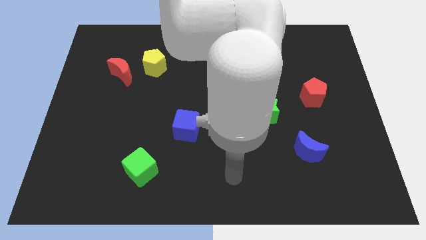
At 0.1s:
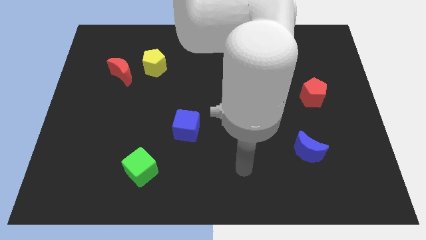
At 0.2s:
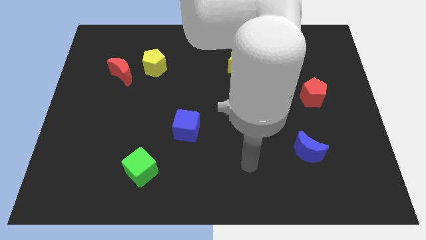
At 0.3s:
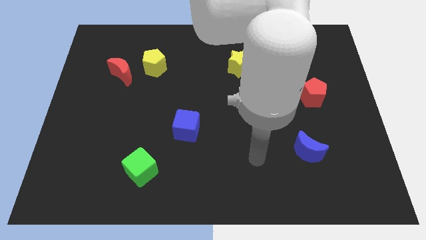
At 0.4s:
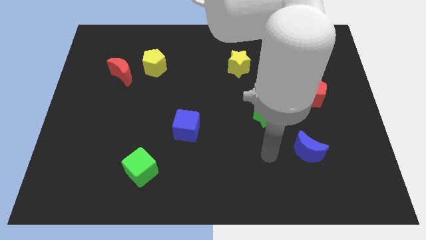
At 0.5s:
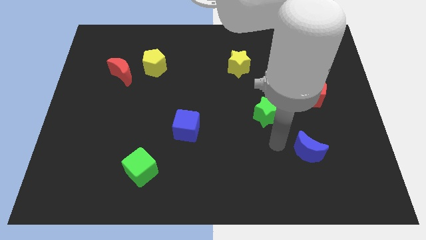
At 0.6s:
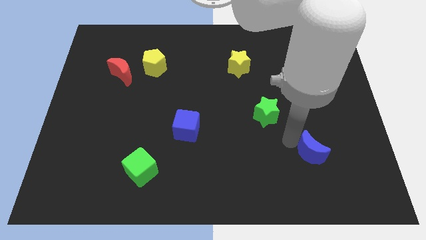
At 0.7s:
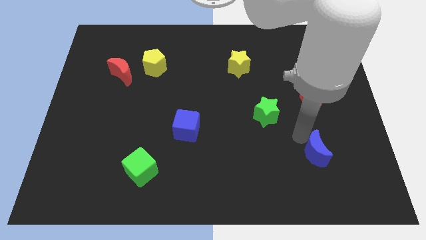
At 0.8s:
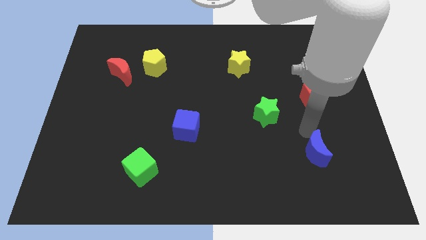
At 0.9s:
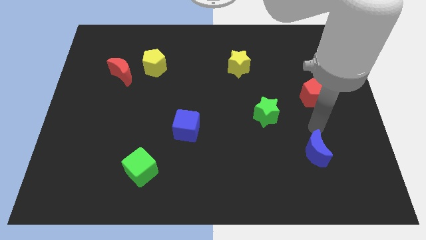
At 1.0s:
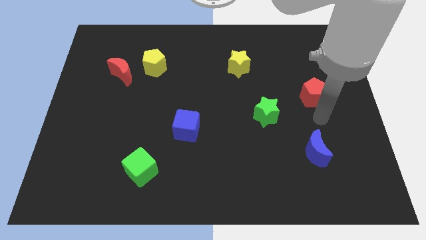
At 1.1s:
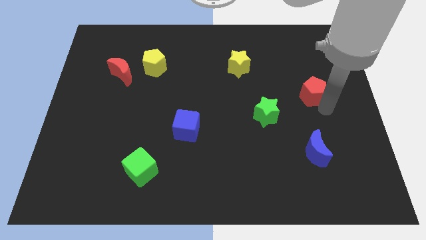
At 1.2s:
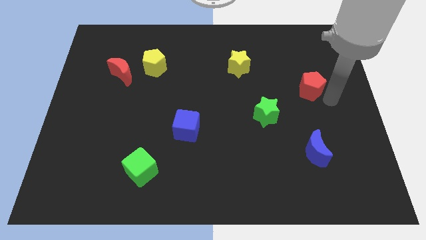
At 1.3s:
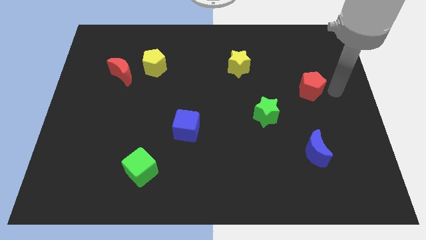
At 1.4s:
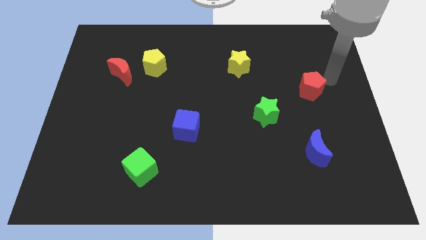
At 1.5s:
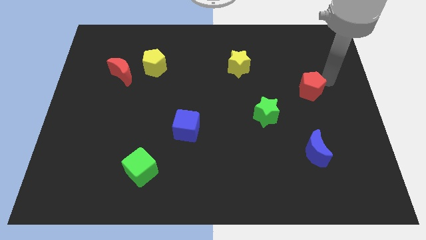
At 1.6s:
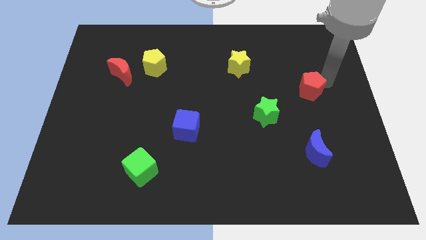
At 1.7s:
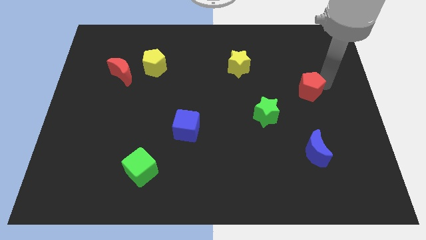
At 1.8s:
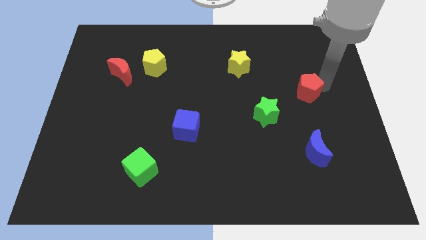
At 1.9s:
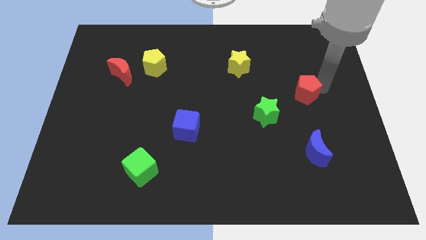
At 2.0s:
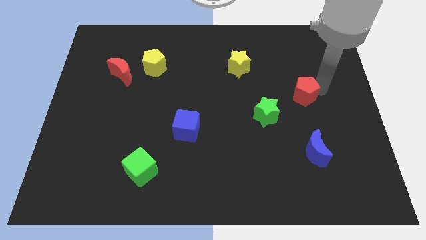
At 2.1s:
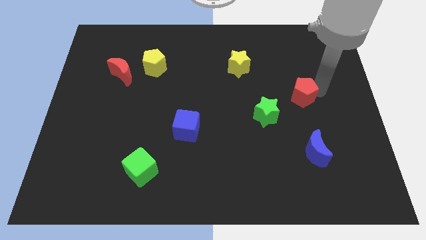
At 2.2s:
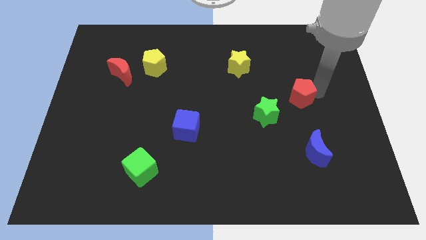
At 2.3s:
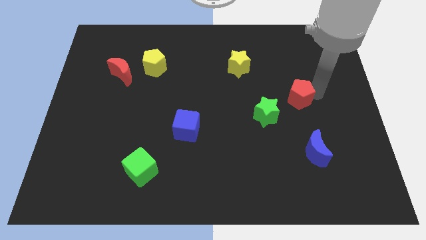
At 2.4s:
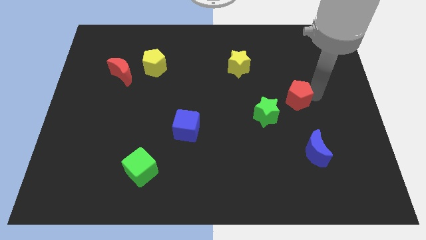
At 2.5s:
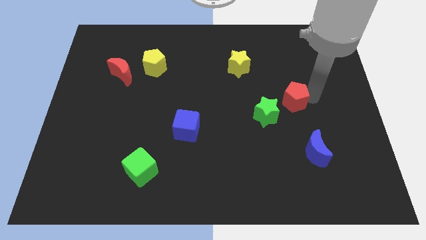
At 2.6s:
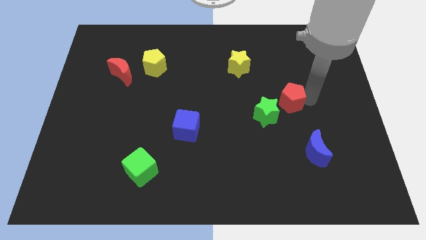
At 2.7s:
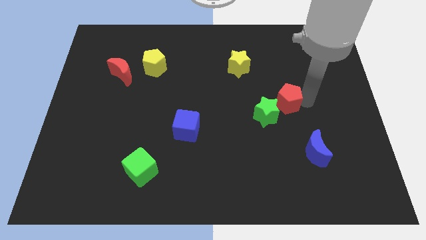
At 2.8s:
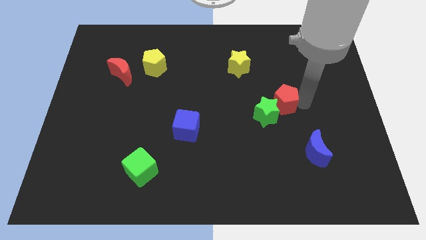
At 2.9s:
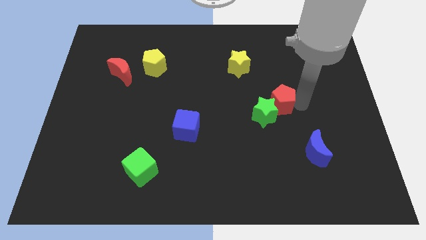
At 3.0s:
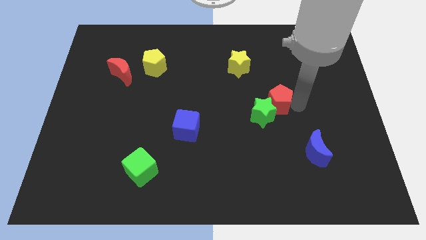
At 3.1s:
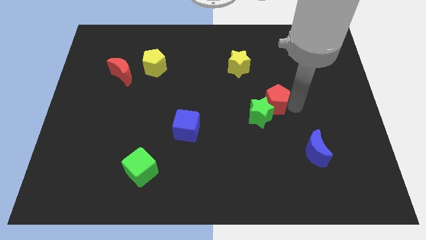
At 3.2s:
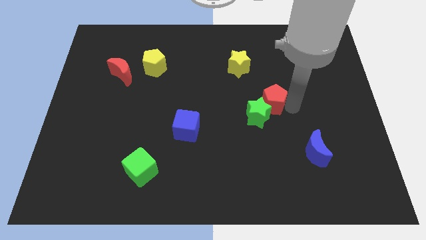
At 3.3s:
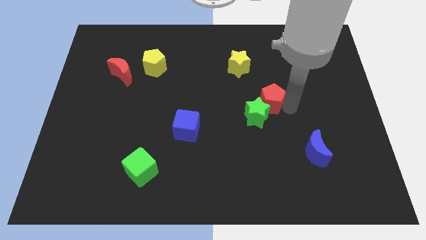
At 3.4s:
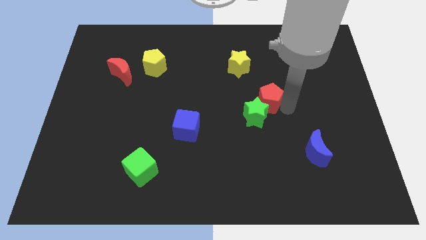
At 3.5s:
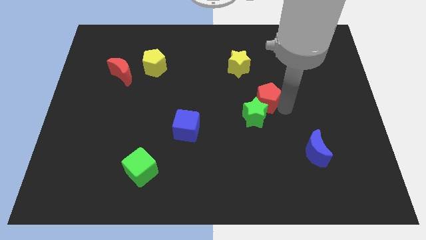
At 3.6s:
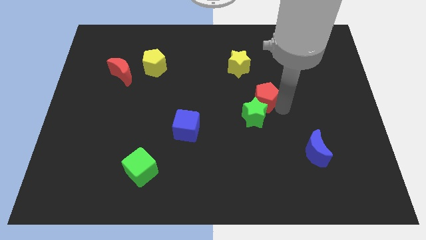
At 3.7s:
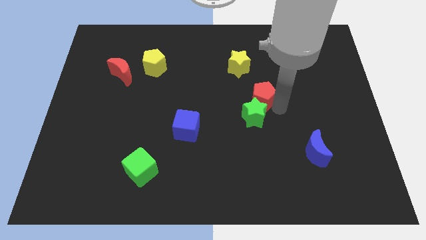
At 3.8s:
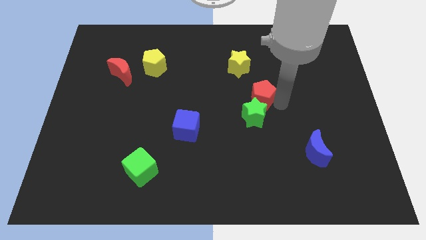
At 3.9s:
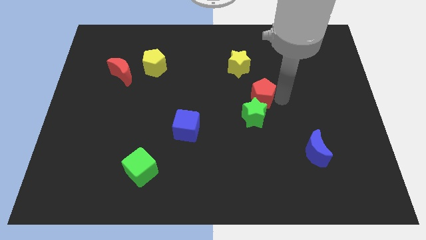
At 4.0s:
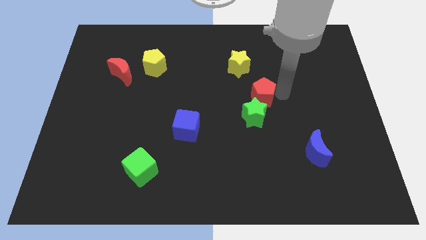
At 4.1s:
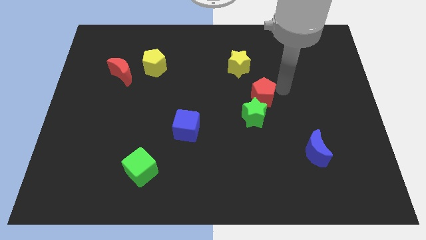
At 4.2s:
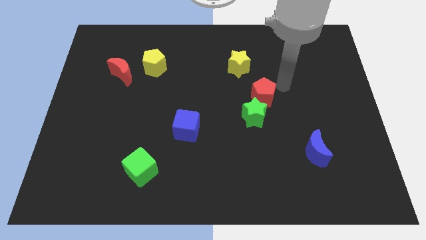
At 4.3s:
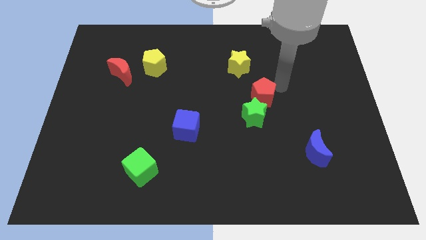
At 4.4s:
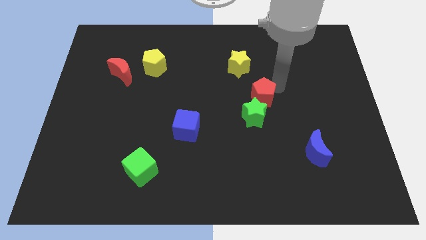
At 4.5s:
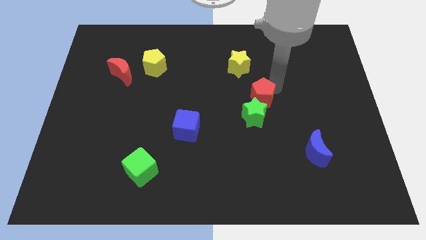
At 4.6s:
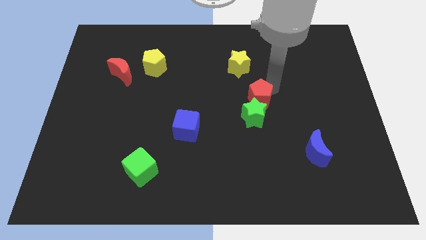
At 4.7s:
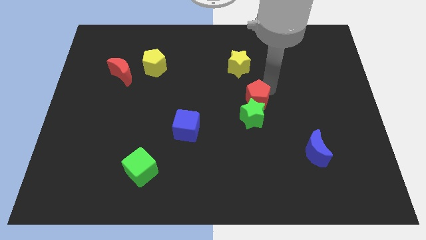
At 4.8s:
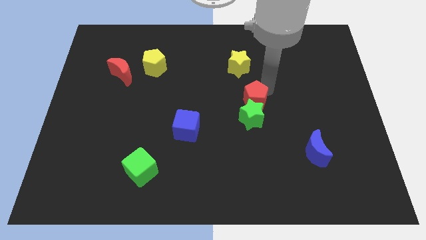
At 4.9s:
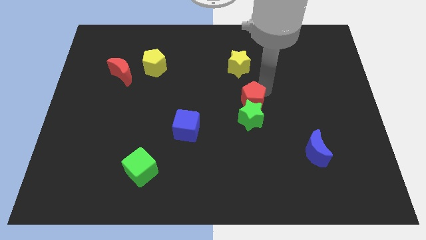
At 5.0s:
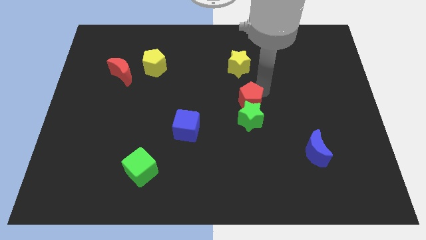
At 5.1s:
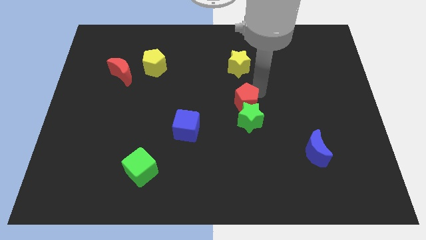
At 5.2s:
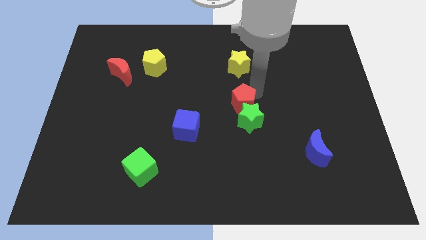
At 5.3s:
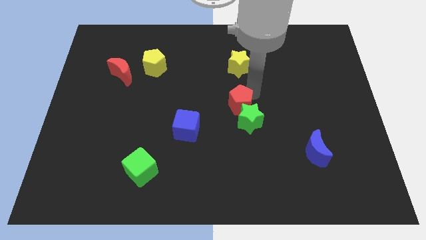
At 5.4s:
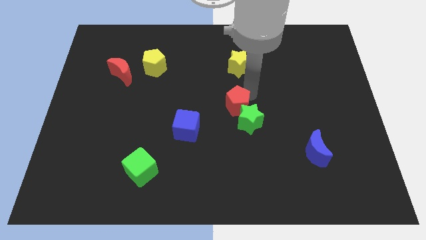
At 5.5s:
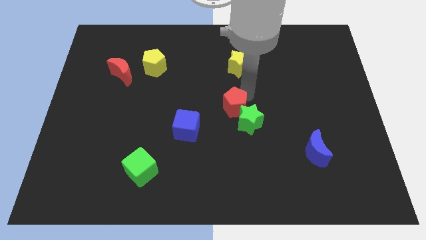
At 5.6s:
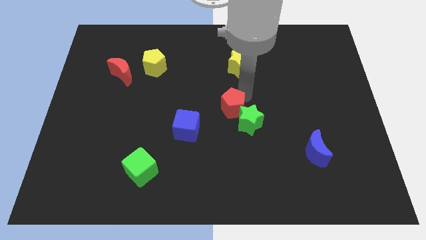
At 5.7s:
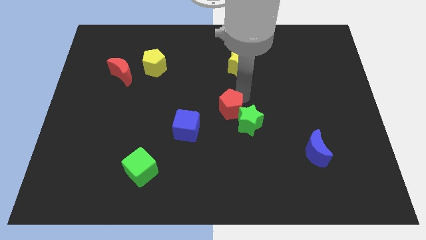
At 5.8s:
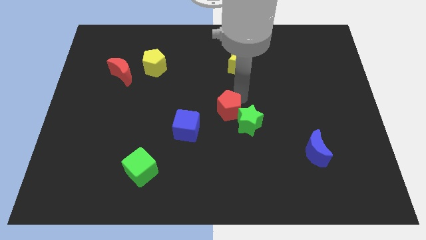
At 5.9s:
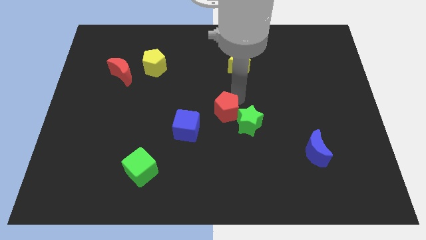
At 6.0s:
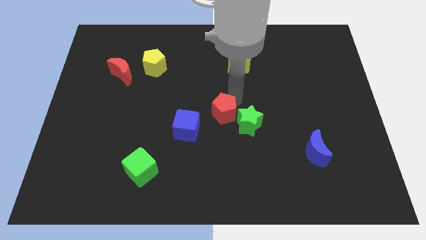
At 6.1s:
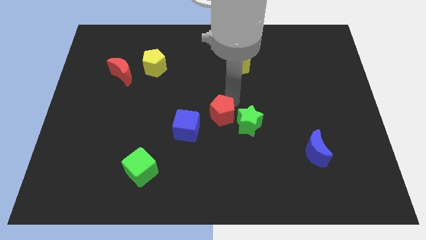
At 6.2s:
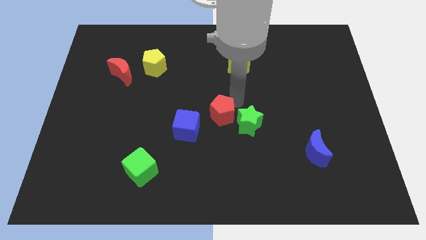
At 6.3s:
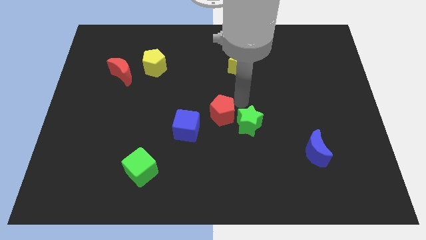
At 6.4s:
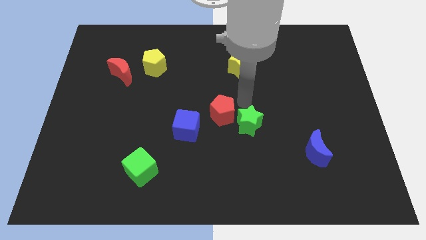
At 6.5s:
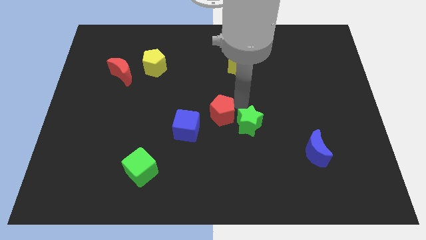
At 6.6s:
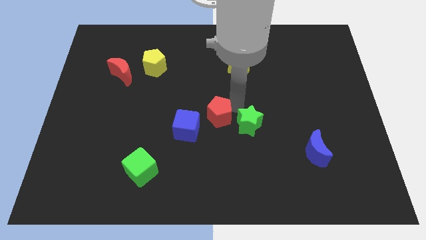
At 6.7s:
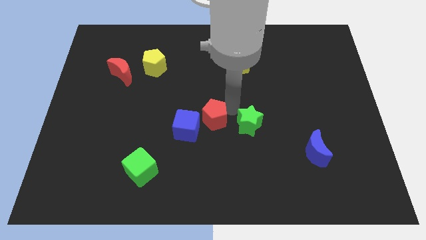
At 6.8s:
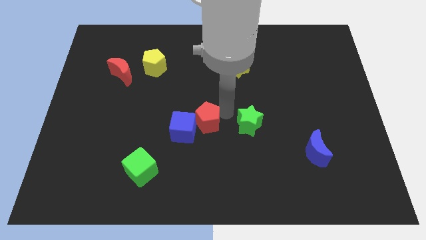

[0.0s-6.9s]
slide the red pentagon close to the blue cube

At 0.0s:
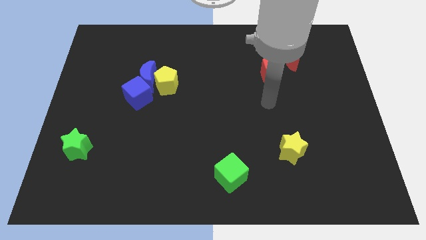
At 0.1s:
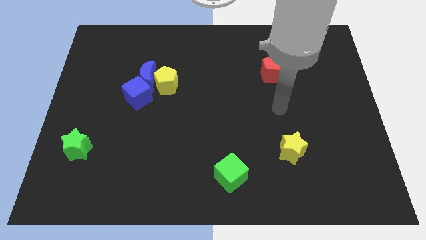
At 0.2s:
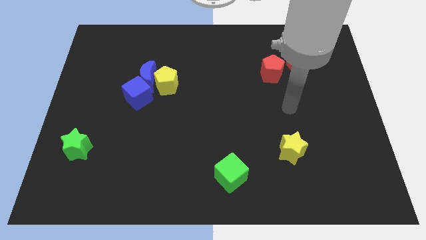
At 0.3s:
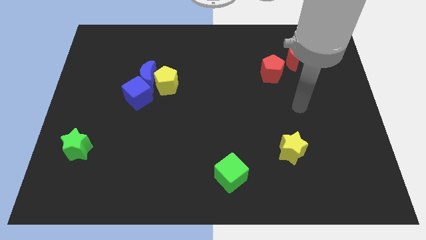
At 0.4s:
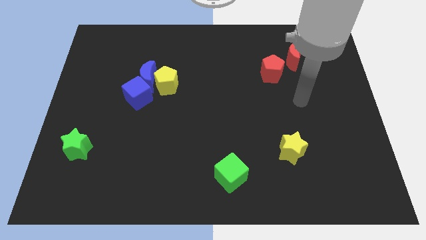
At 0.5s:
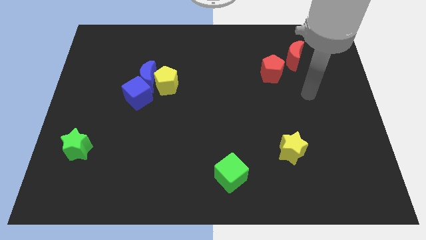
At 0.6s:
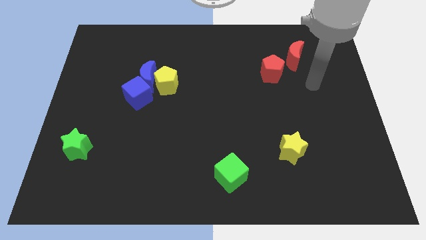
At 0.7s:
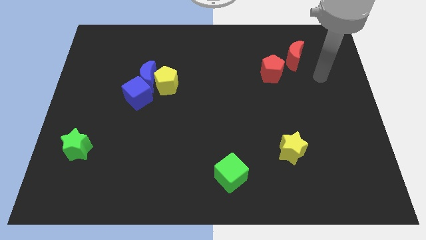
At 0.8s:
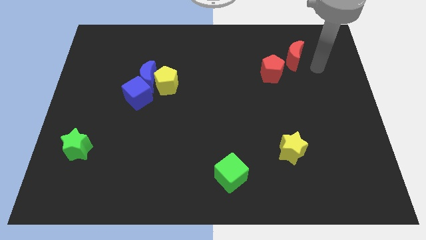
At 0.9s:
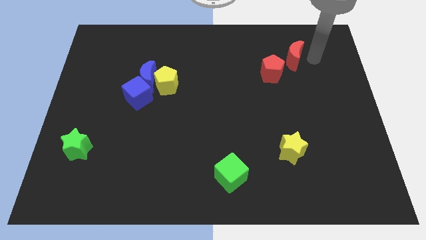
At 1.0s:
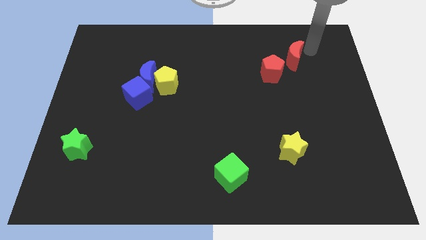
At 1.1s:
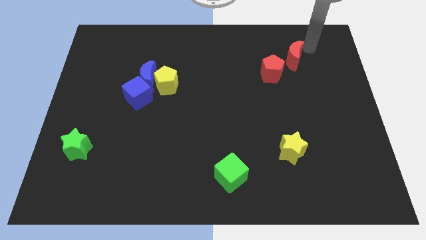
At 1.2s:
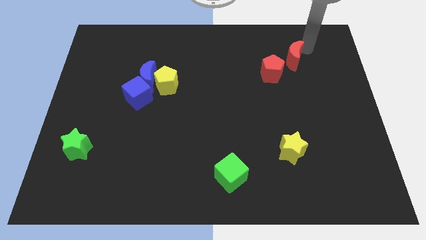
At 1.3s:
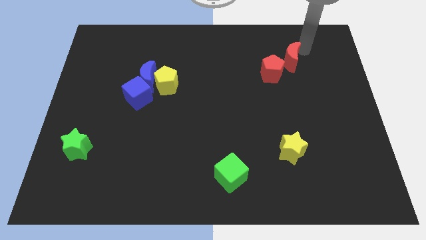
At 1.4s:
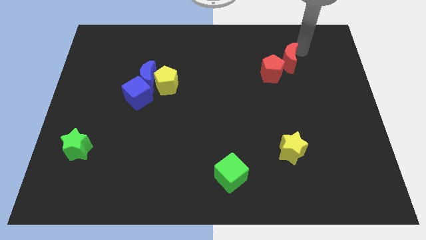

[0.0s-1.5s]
slide the red moon next to the red pentagon
